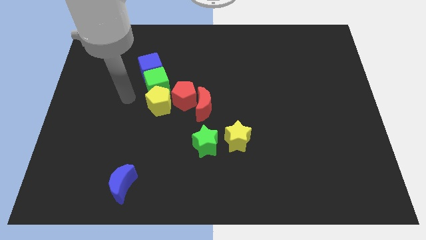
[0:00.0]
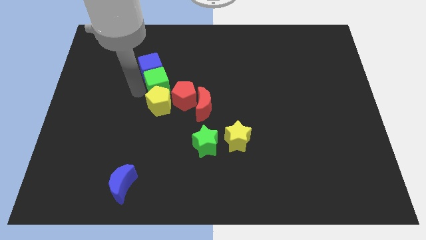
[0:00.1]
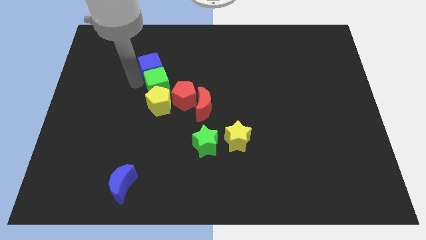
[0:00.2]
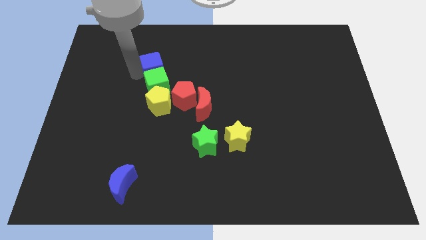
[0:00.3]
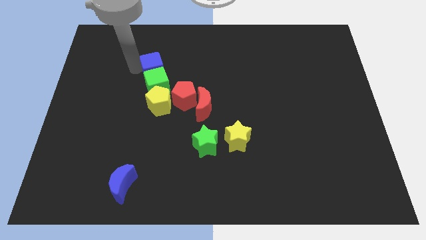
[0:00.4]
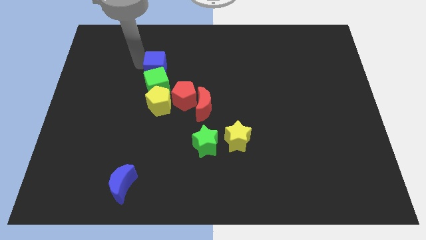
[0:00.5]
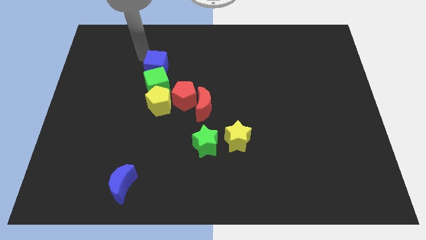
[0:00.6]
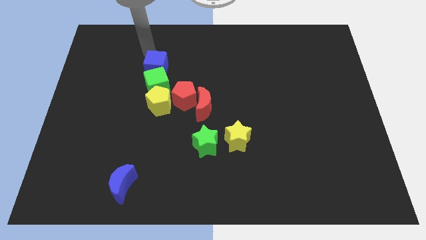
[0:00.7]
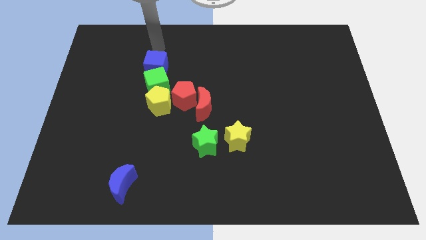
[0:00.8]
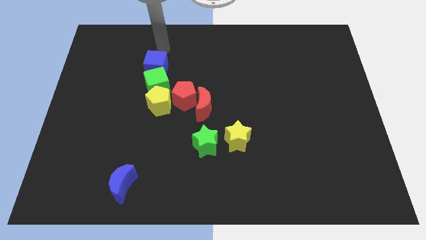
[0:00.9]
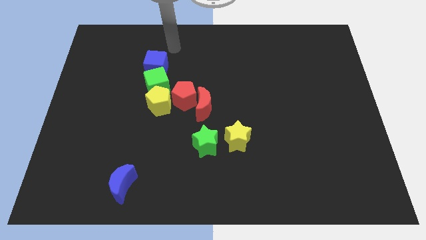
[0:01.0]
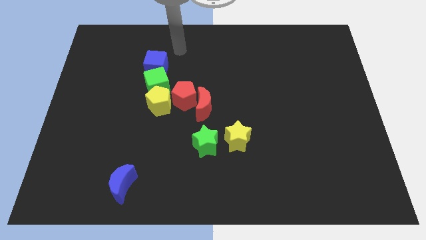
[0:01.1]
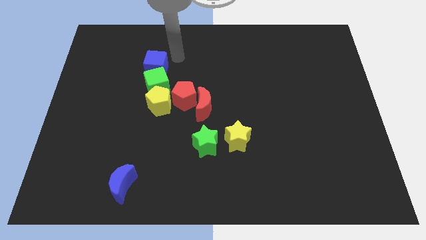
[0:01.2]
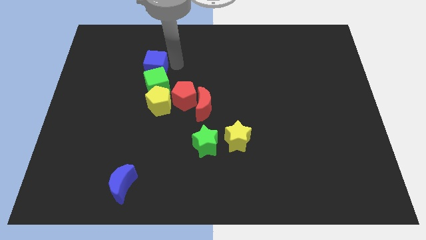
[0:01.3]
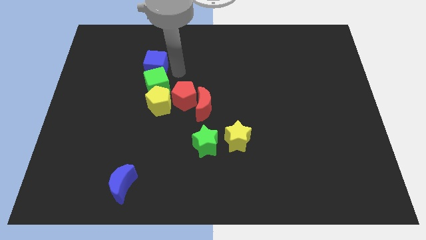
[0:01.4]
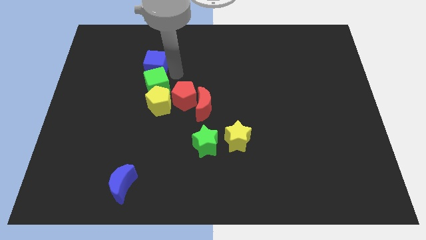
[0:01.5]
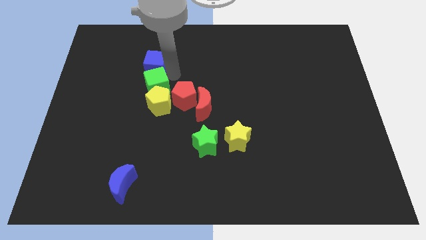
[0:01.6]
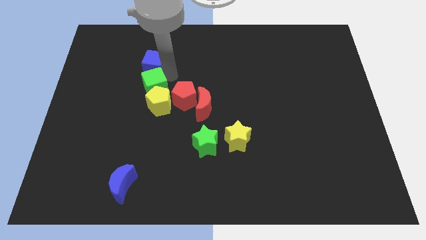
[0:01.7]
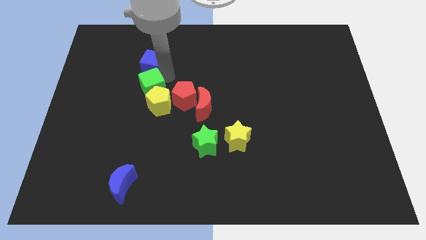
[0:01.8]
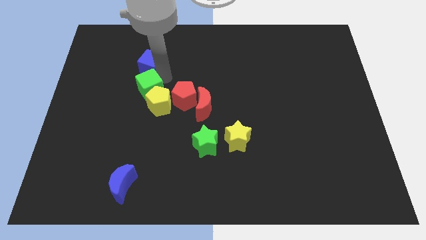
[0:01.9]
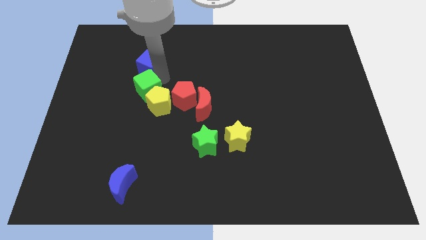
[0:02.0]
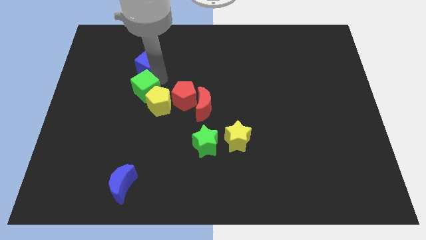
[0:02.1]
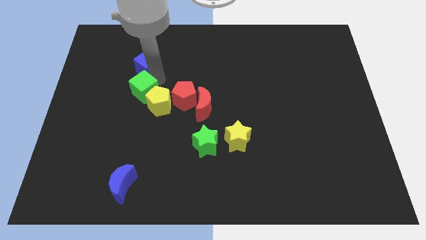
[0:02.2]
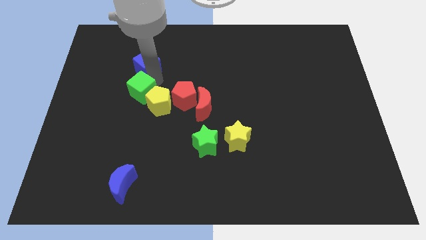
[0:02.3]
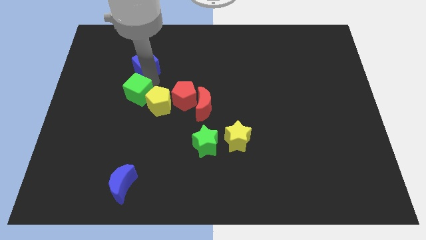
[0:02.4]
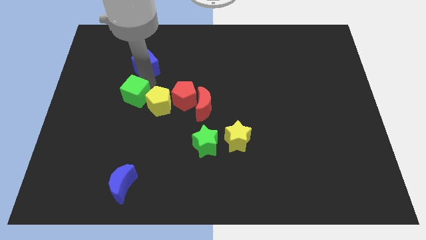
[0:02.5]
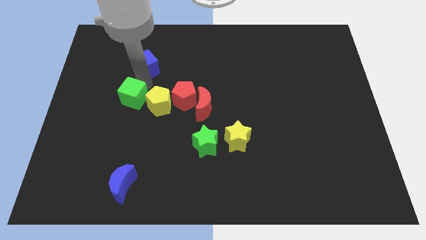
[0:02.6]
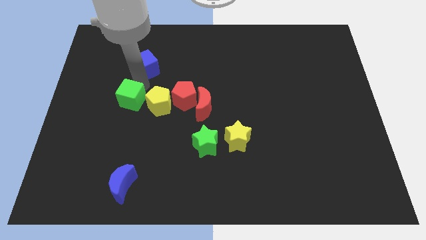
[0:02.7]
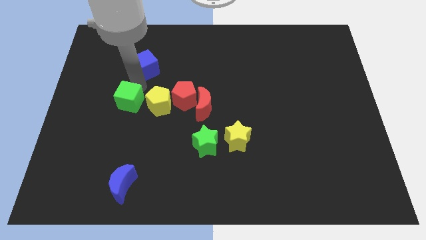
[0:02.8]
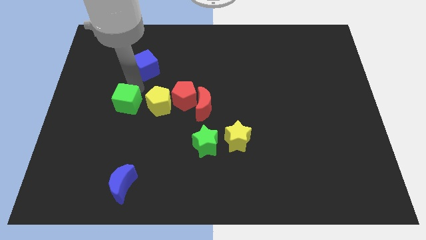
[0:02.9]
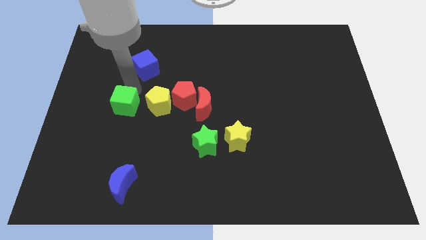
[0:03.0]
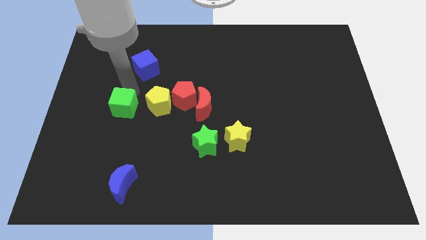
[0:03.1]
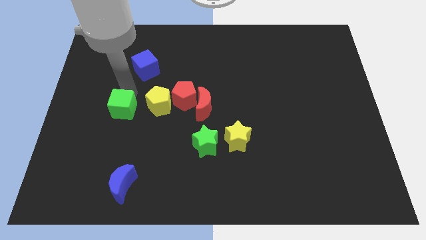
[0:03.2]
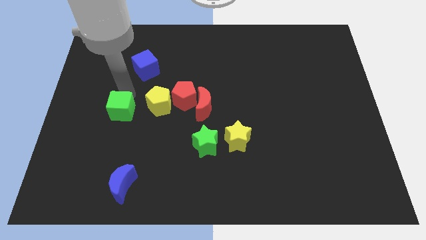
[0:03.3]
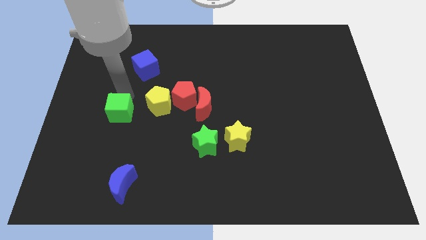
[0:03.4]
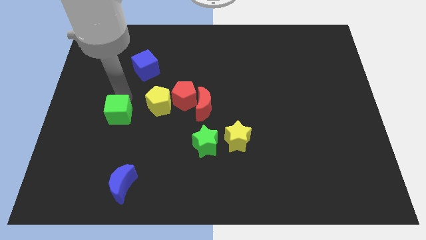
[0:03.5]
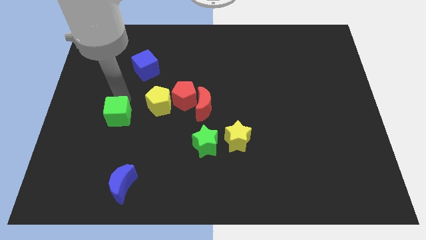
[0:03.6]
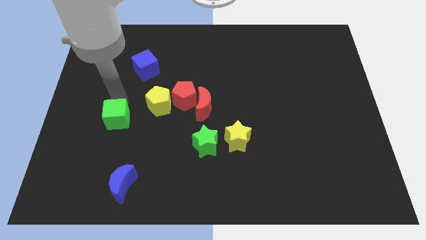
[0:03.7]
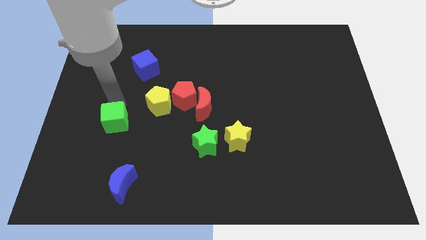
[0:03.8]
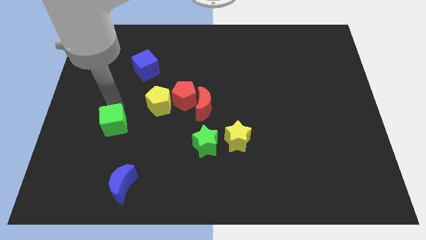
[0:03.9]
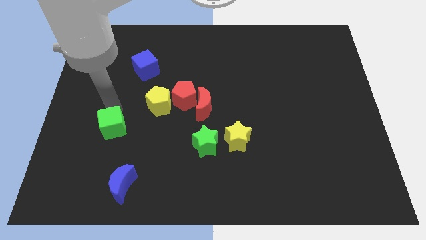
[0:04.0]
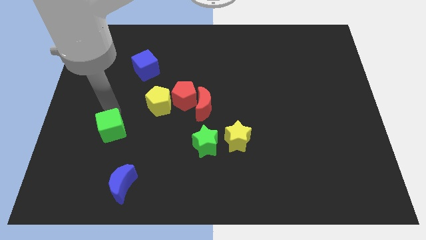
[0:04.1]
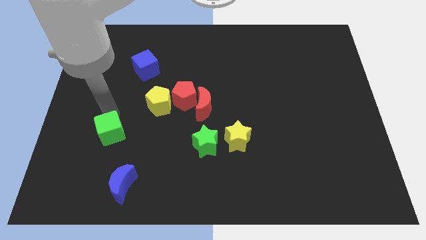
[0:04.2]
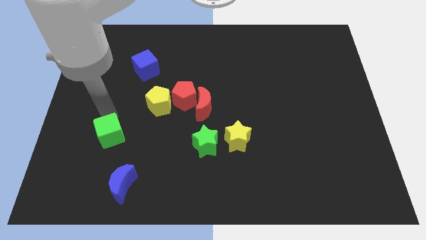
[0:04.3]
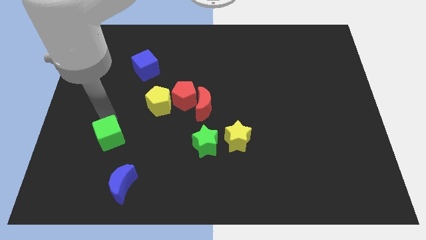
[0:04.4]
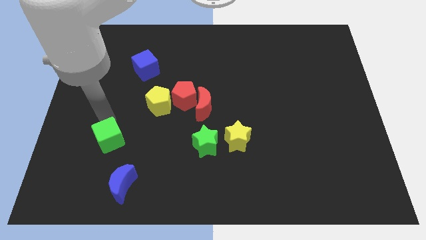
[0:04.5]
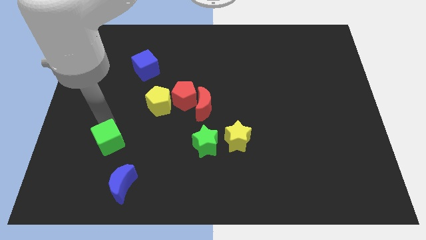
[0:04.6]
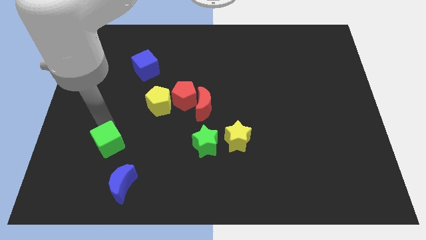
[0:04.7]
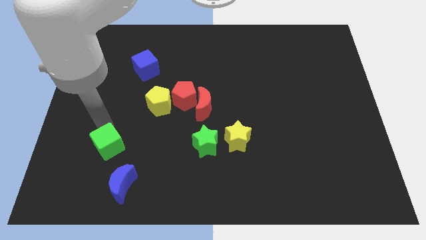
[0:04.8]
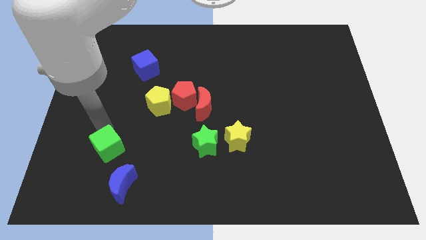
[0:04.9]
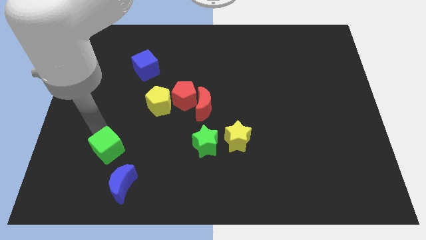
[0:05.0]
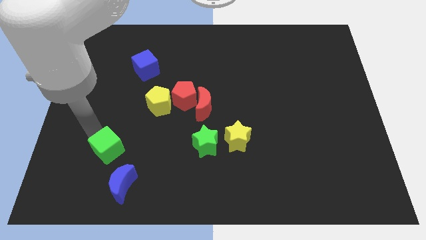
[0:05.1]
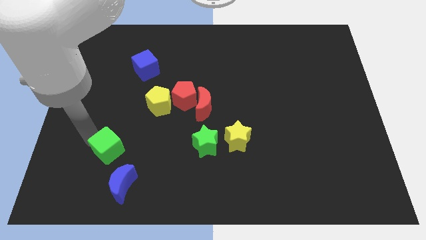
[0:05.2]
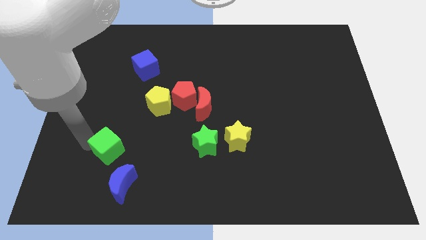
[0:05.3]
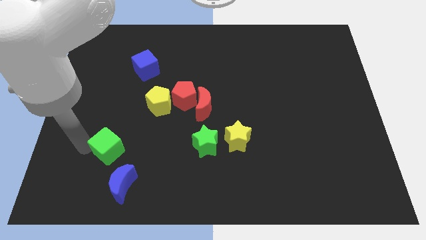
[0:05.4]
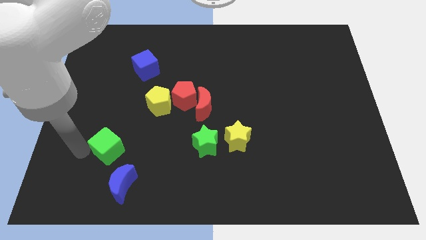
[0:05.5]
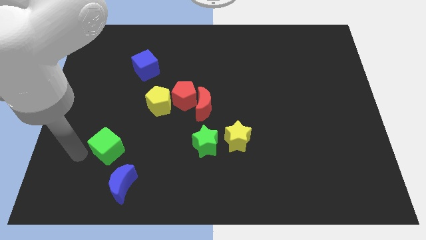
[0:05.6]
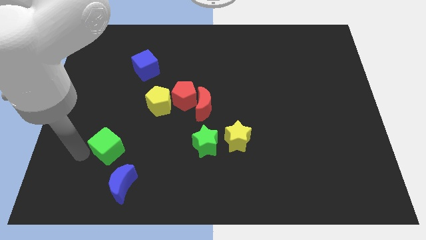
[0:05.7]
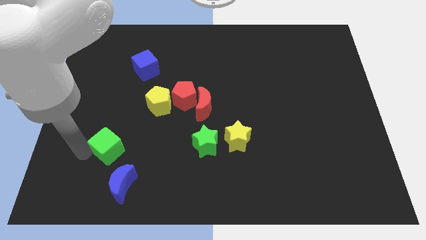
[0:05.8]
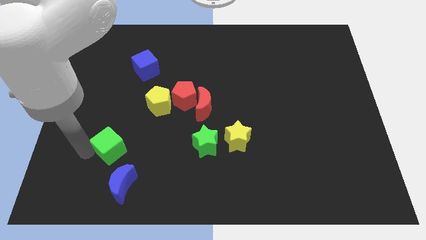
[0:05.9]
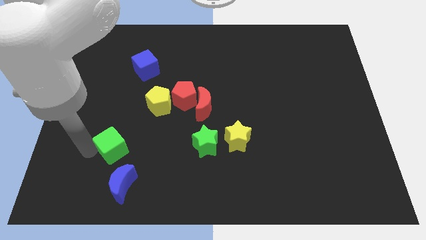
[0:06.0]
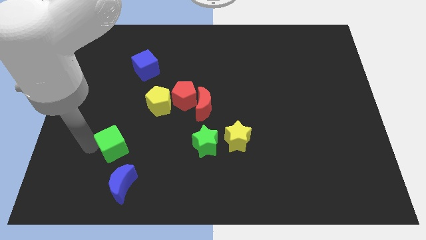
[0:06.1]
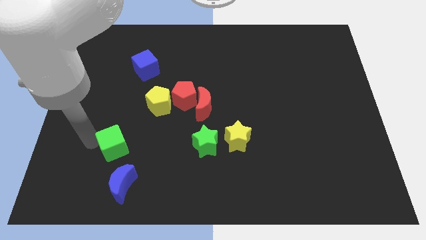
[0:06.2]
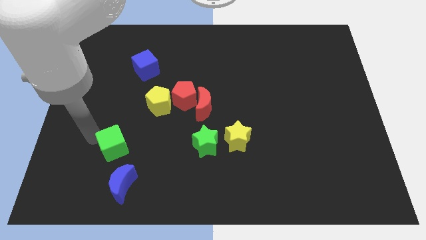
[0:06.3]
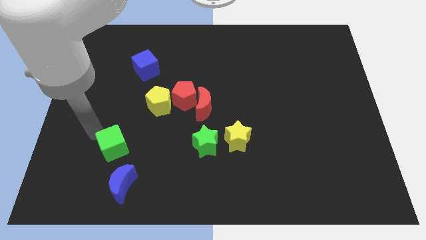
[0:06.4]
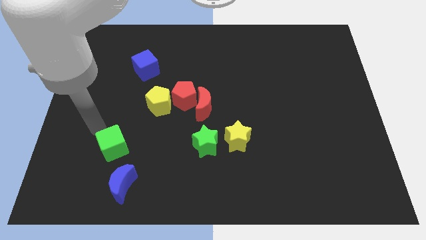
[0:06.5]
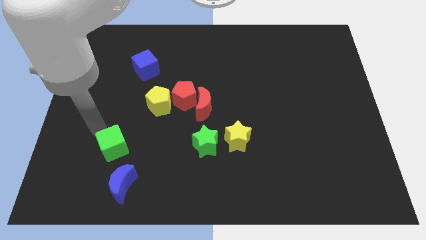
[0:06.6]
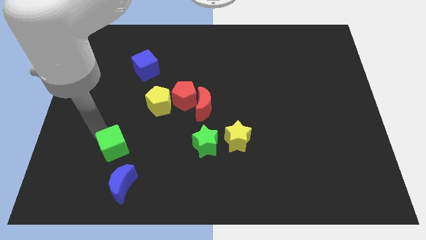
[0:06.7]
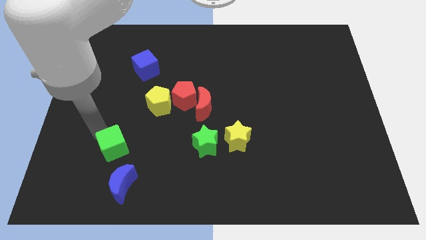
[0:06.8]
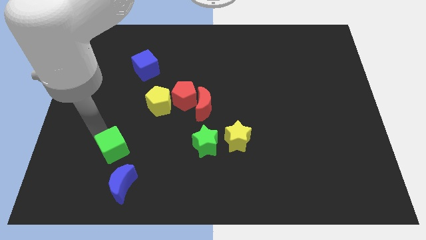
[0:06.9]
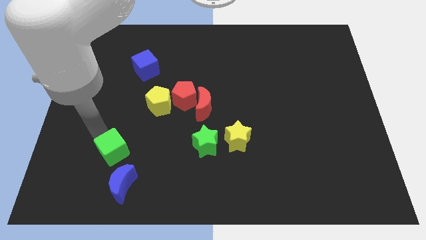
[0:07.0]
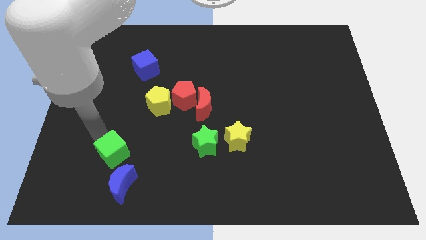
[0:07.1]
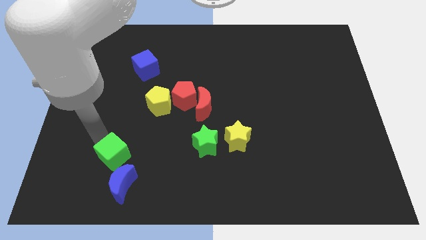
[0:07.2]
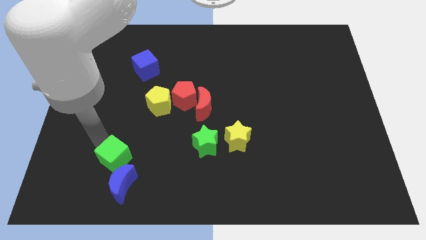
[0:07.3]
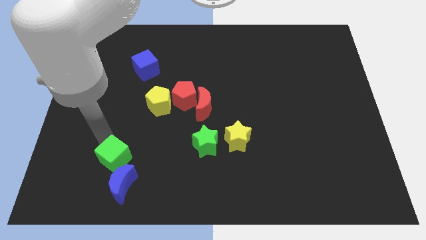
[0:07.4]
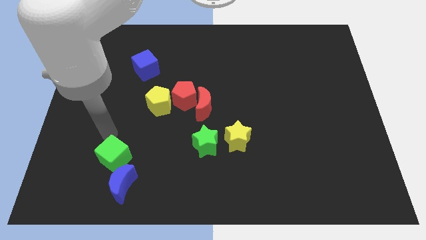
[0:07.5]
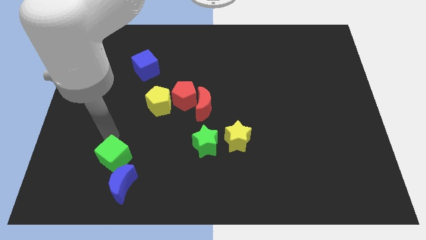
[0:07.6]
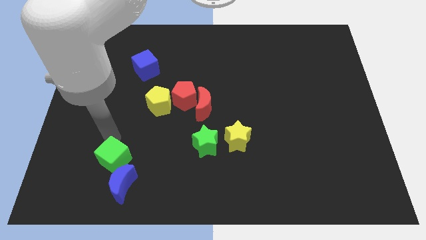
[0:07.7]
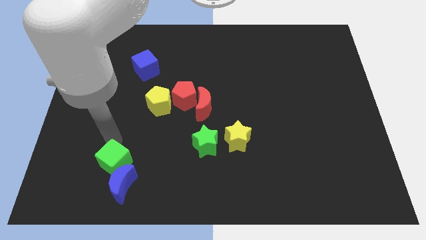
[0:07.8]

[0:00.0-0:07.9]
push the green cube close to the blue moon
